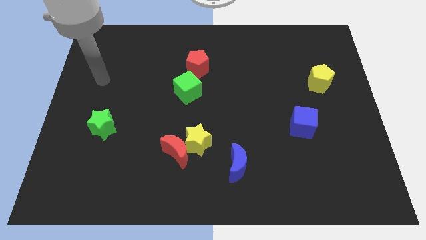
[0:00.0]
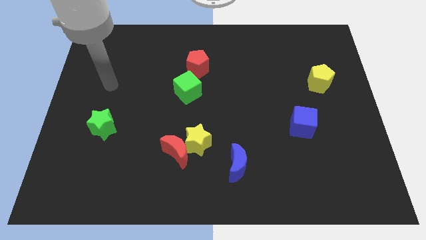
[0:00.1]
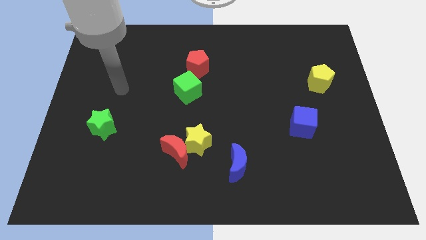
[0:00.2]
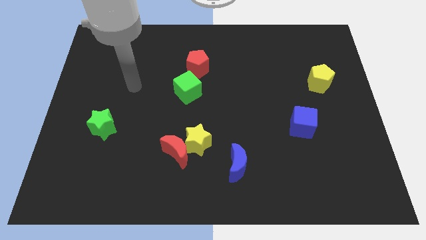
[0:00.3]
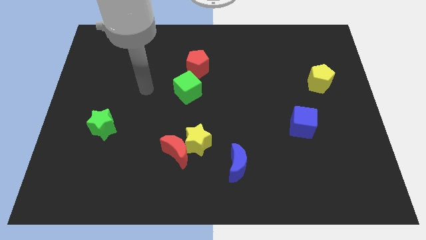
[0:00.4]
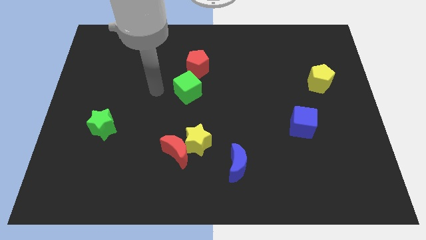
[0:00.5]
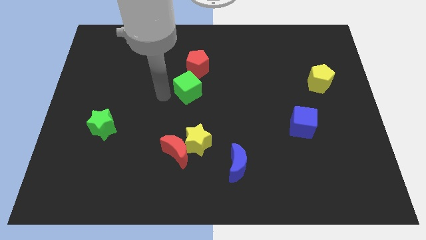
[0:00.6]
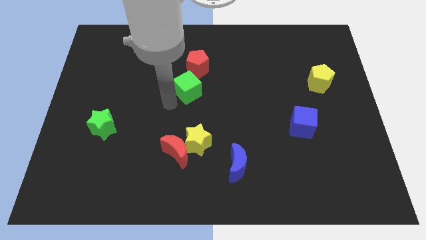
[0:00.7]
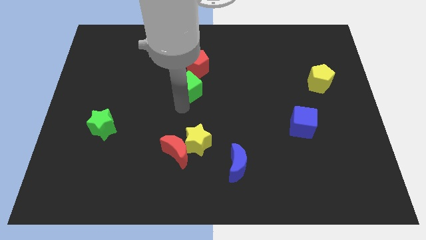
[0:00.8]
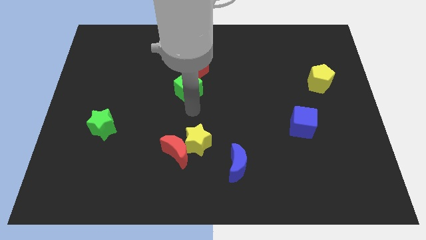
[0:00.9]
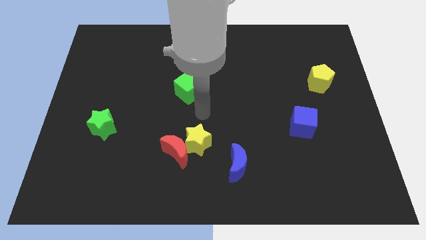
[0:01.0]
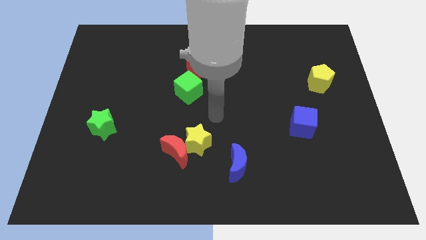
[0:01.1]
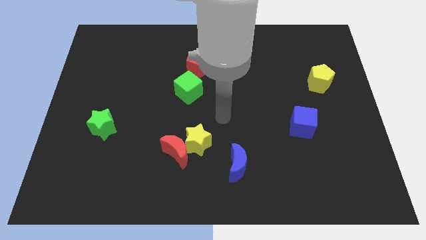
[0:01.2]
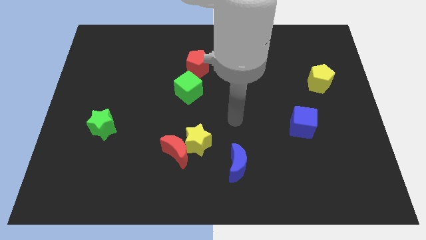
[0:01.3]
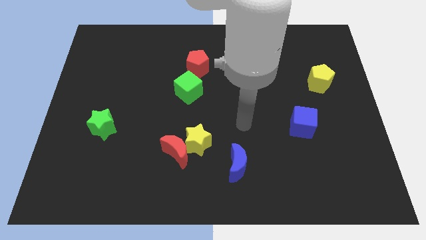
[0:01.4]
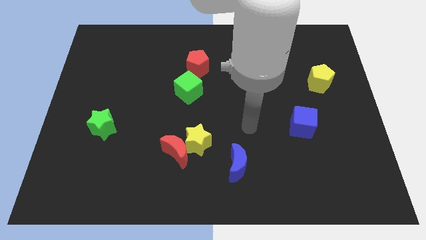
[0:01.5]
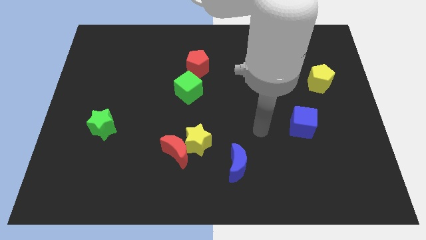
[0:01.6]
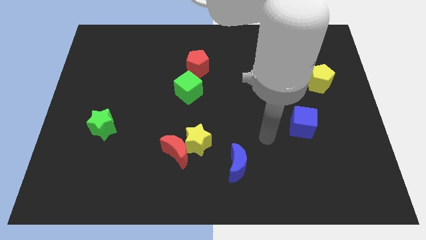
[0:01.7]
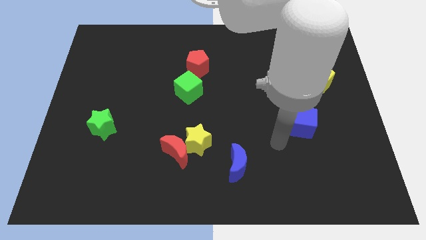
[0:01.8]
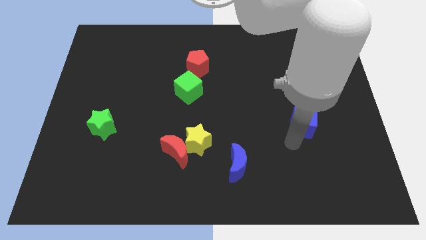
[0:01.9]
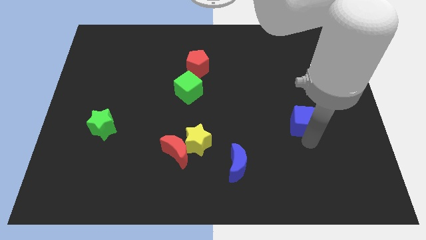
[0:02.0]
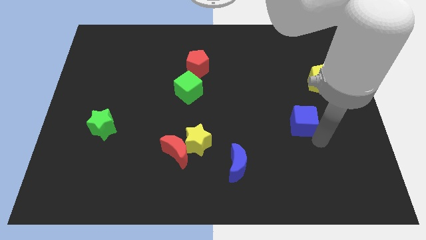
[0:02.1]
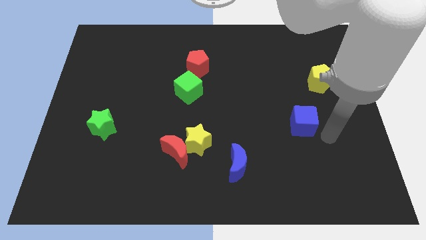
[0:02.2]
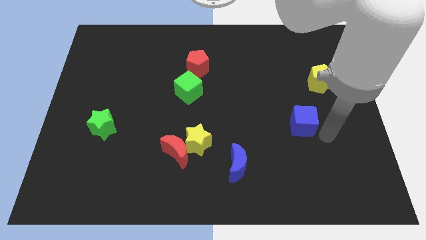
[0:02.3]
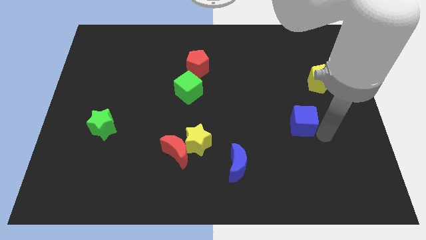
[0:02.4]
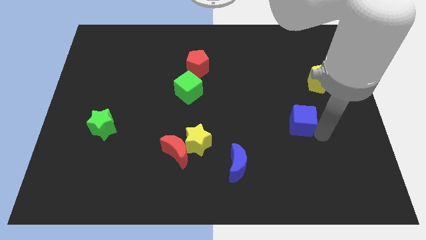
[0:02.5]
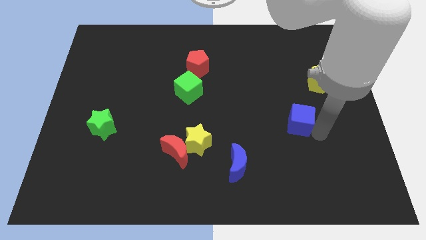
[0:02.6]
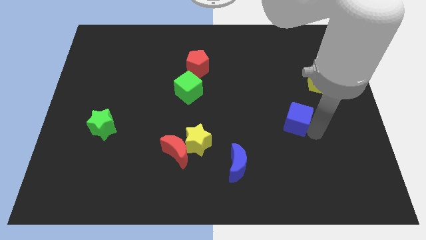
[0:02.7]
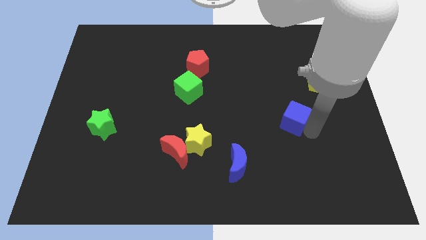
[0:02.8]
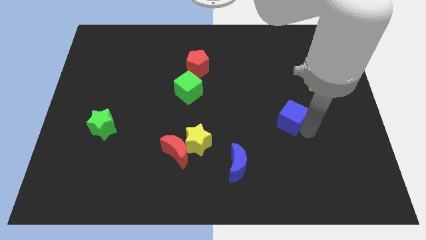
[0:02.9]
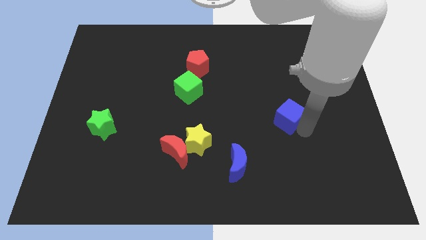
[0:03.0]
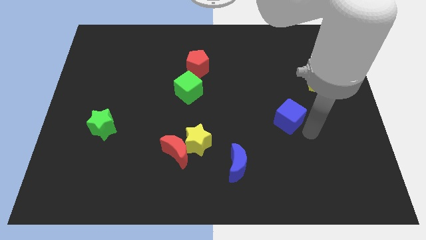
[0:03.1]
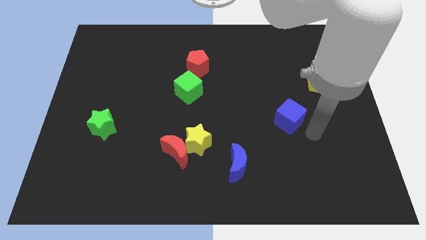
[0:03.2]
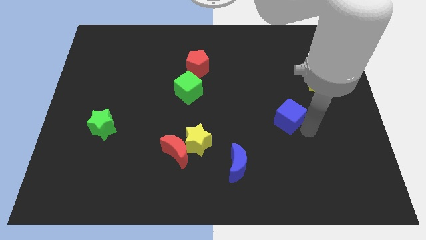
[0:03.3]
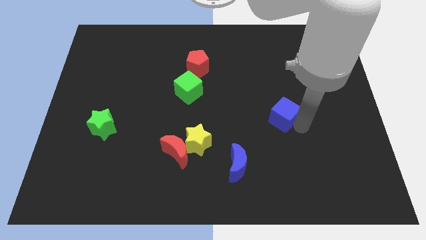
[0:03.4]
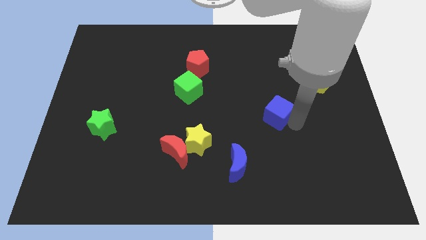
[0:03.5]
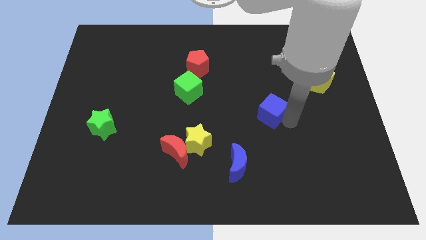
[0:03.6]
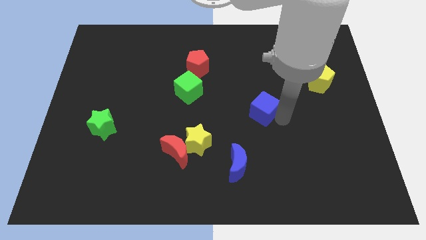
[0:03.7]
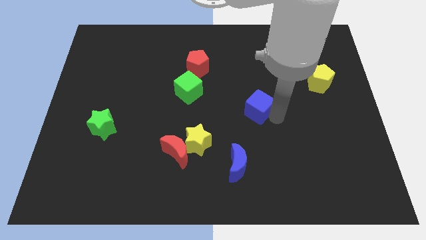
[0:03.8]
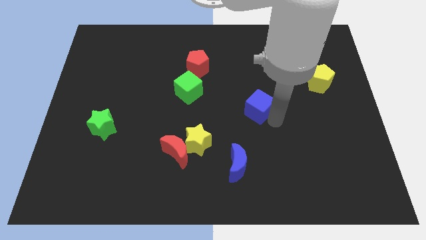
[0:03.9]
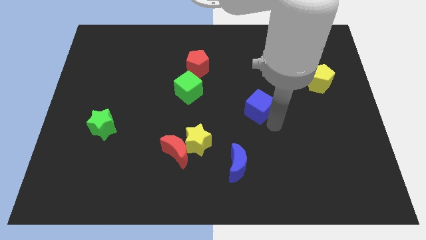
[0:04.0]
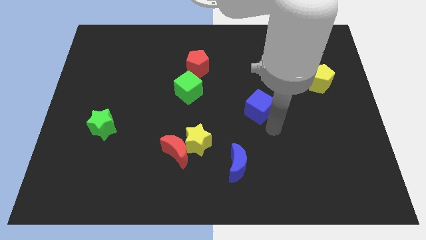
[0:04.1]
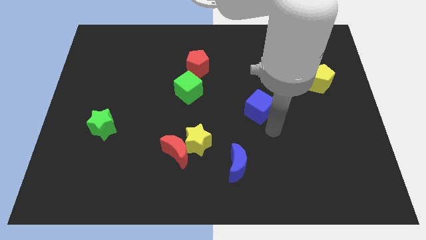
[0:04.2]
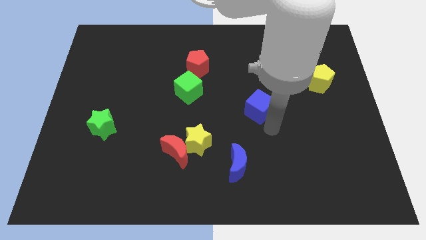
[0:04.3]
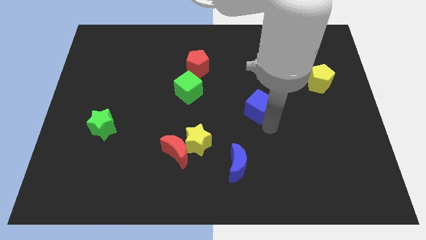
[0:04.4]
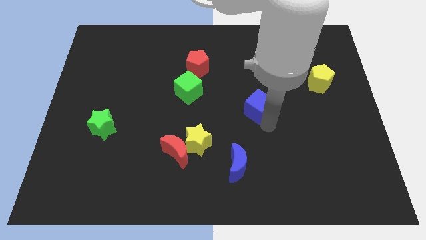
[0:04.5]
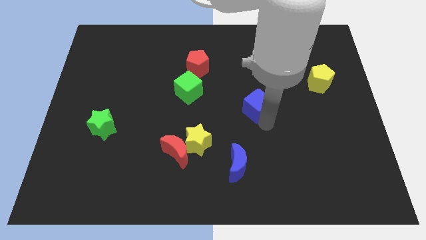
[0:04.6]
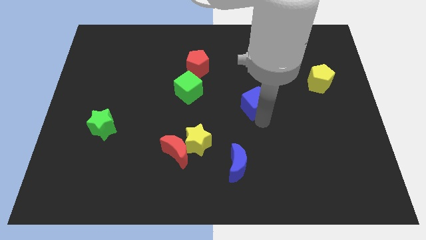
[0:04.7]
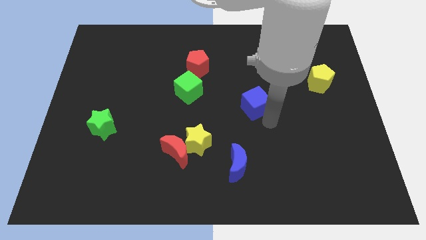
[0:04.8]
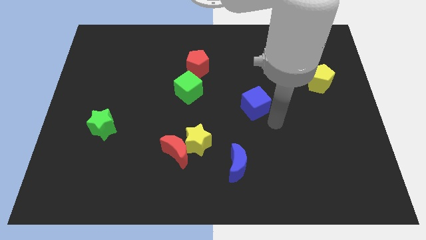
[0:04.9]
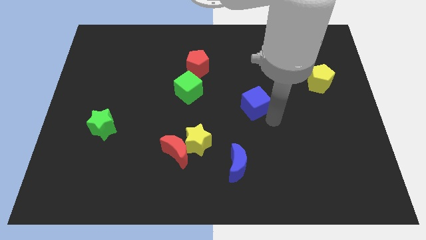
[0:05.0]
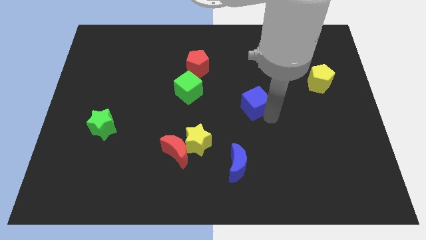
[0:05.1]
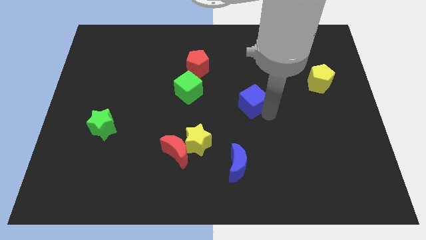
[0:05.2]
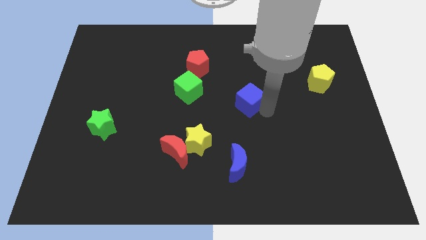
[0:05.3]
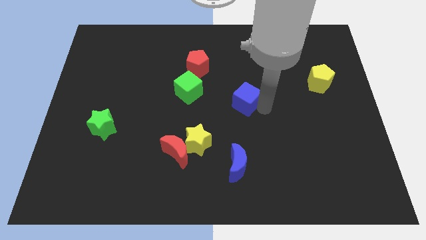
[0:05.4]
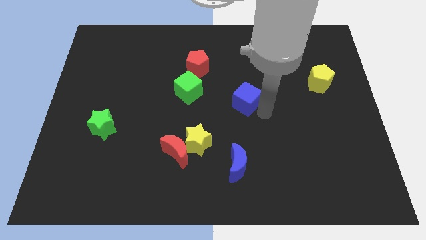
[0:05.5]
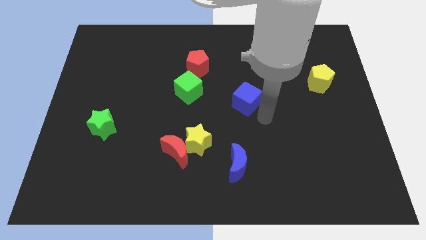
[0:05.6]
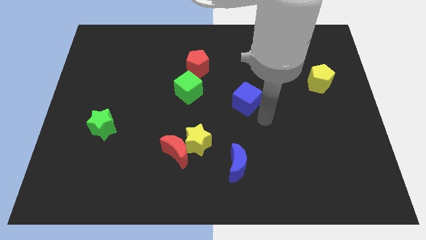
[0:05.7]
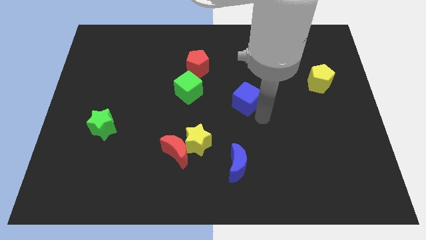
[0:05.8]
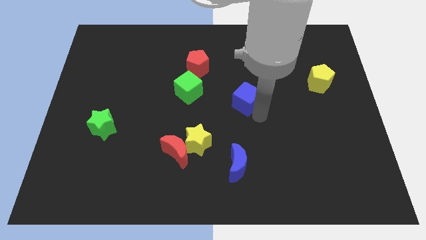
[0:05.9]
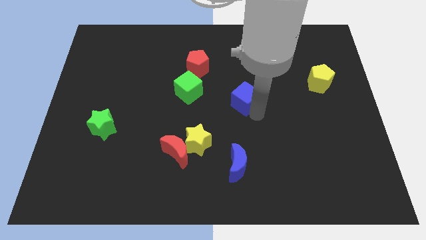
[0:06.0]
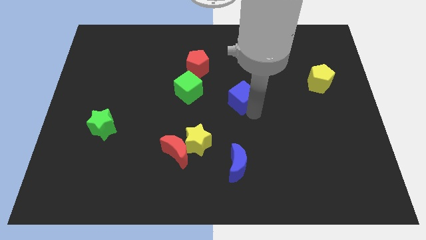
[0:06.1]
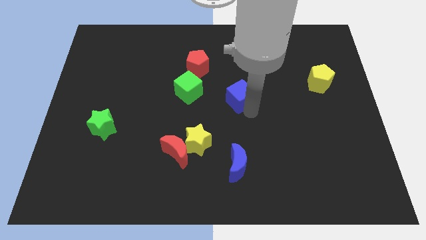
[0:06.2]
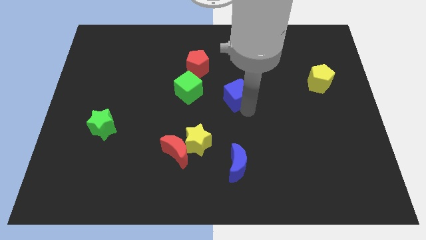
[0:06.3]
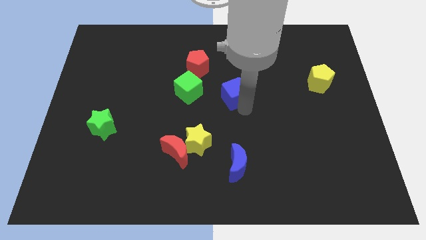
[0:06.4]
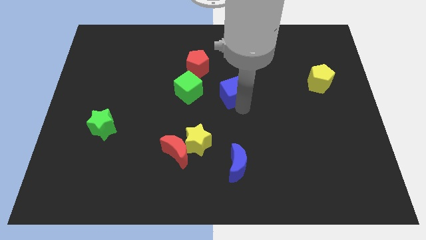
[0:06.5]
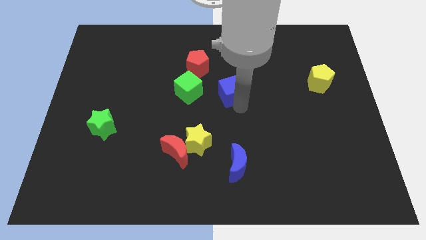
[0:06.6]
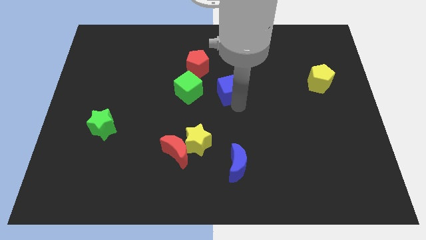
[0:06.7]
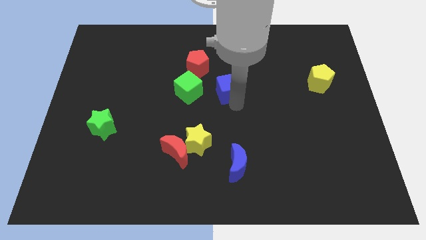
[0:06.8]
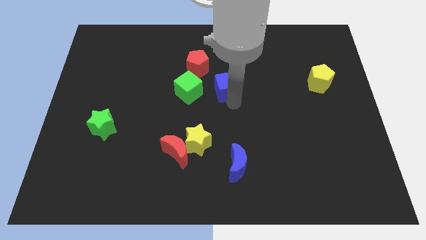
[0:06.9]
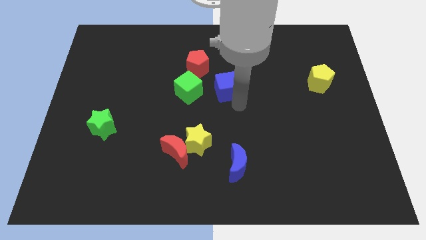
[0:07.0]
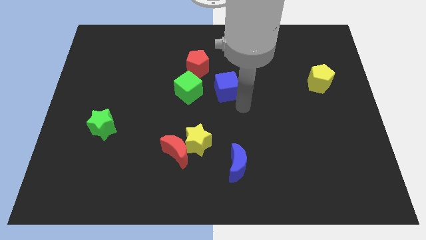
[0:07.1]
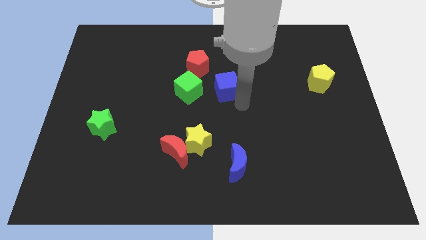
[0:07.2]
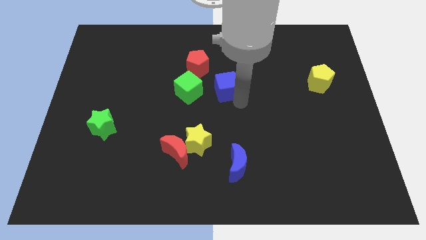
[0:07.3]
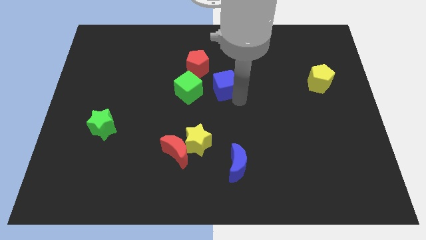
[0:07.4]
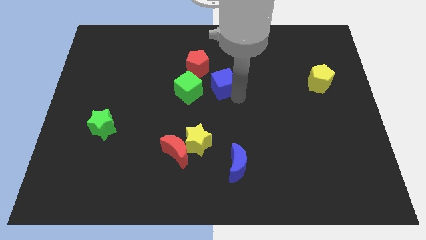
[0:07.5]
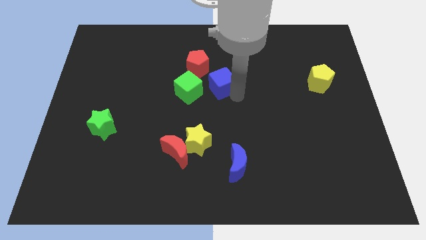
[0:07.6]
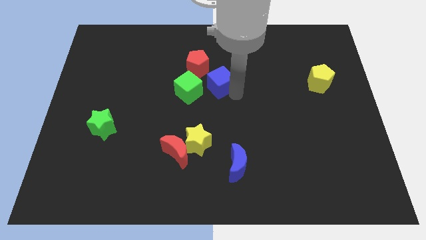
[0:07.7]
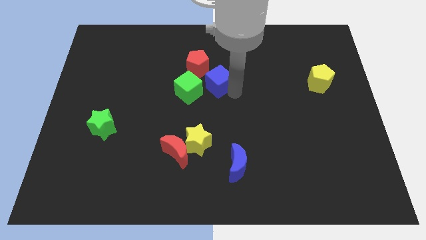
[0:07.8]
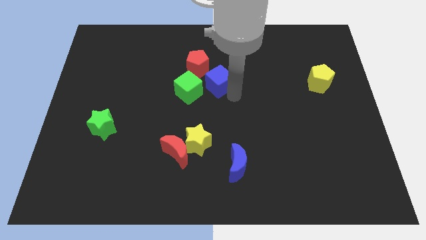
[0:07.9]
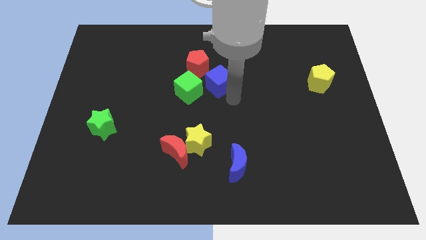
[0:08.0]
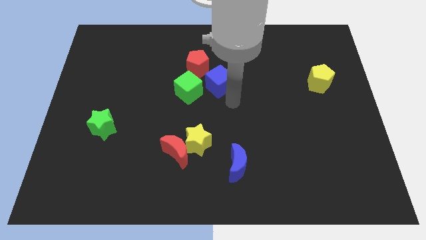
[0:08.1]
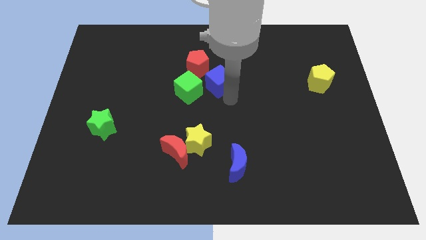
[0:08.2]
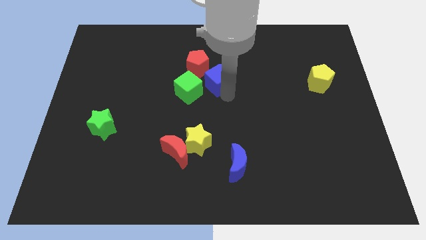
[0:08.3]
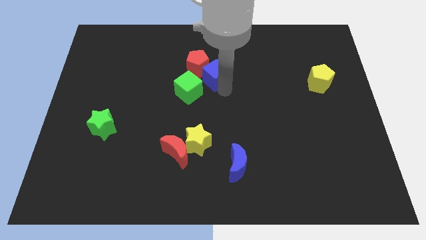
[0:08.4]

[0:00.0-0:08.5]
push the blue cube close to the red pentagon
